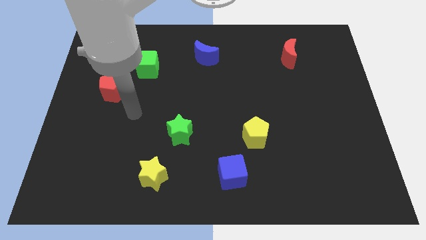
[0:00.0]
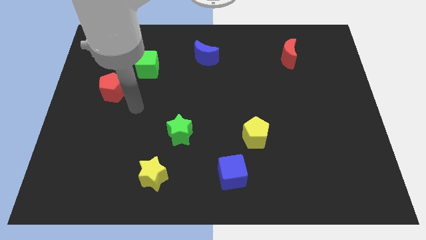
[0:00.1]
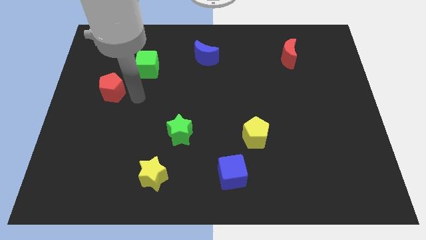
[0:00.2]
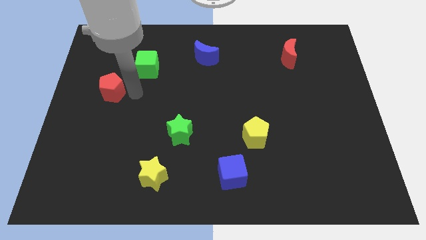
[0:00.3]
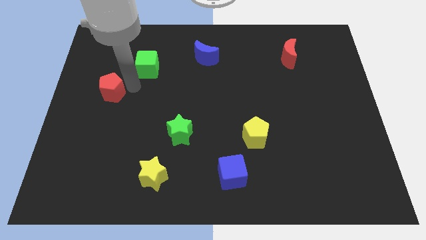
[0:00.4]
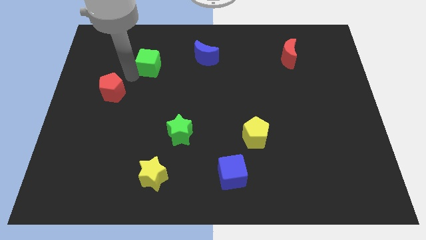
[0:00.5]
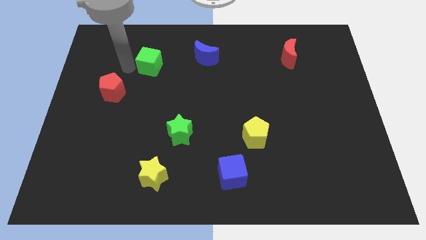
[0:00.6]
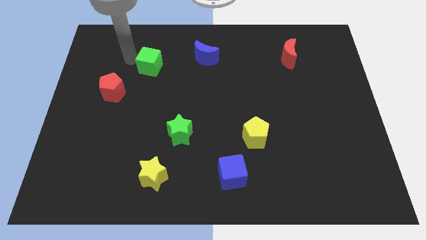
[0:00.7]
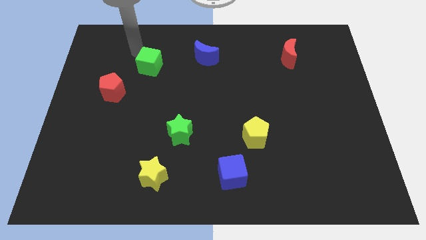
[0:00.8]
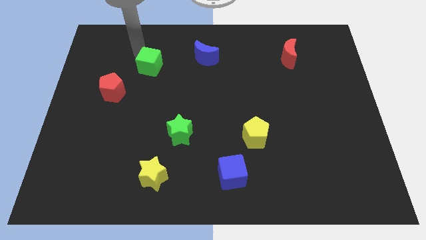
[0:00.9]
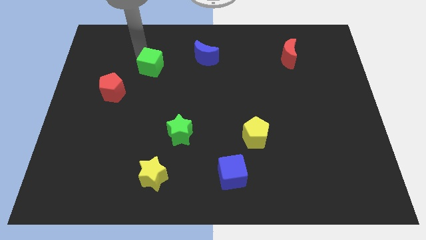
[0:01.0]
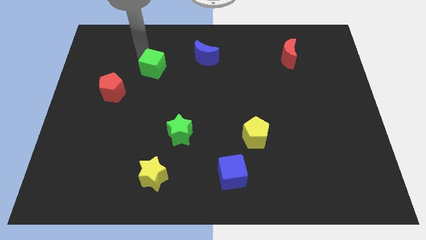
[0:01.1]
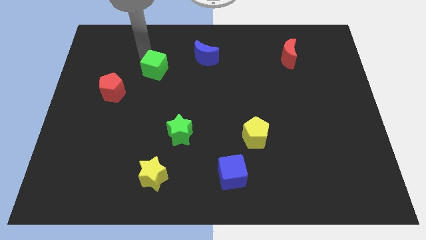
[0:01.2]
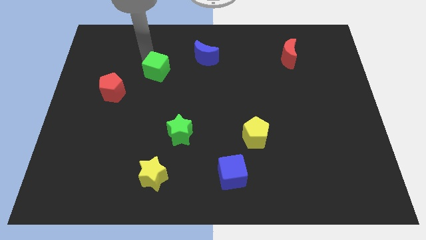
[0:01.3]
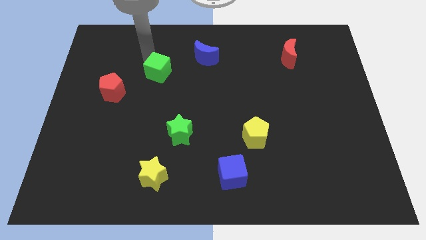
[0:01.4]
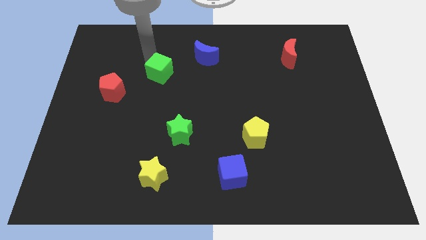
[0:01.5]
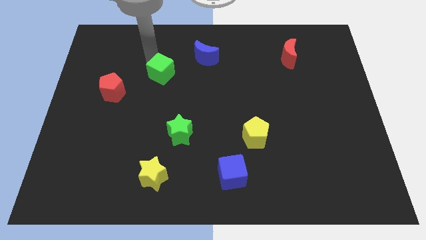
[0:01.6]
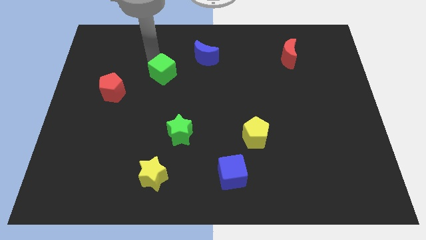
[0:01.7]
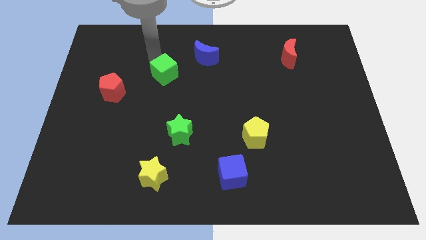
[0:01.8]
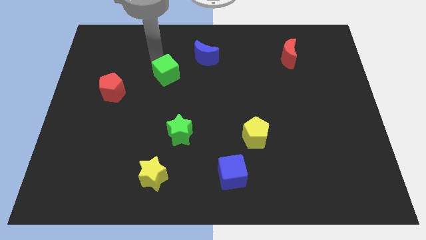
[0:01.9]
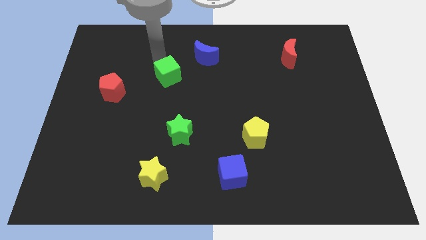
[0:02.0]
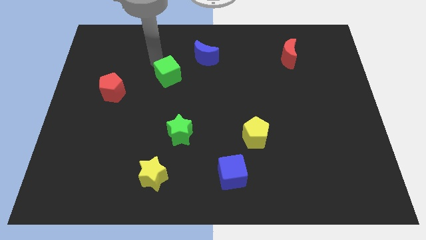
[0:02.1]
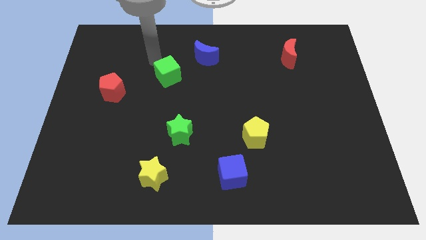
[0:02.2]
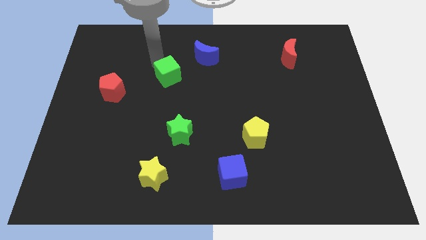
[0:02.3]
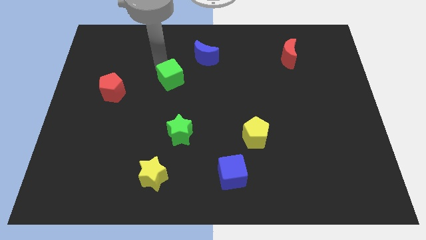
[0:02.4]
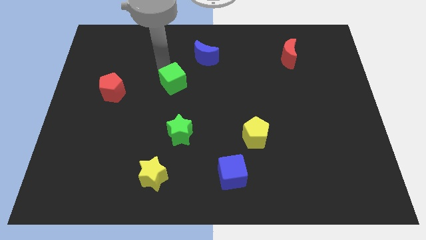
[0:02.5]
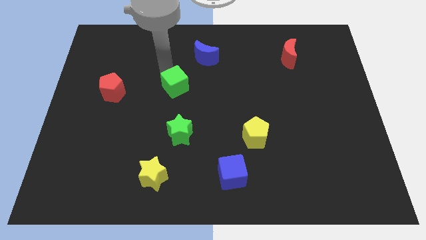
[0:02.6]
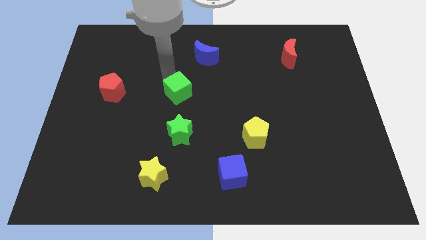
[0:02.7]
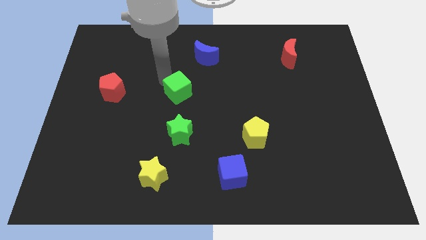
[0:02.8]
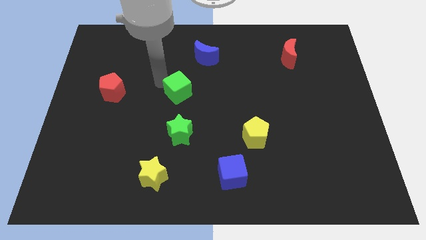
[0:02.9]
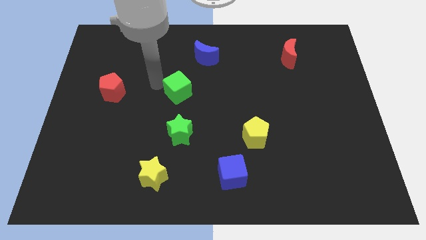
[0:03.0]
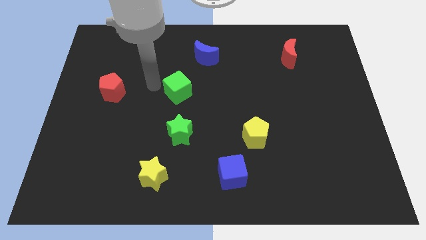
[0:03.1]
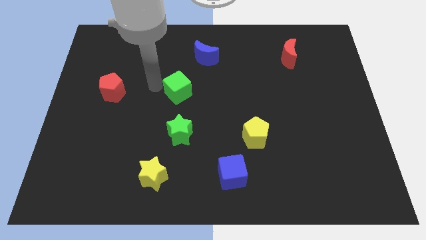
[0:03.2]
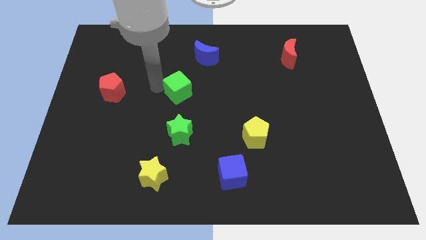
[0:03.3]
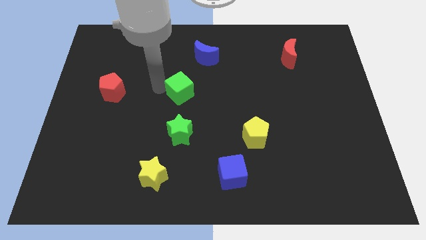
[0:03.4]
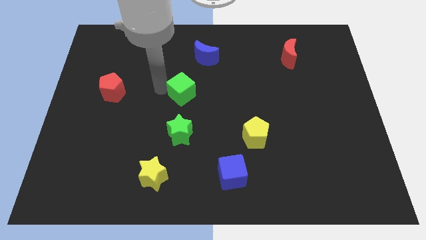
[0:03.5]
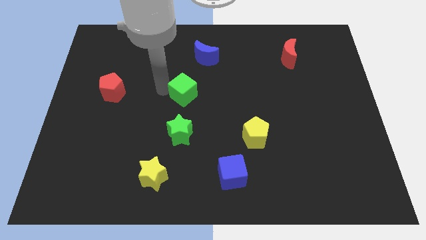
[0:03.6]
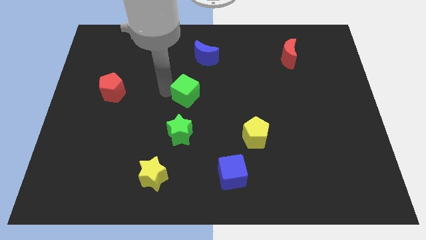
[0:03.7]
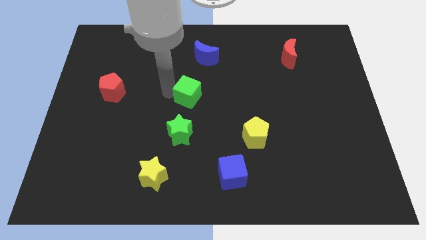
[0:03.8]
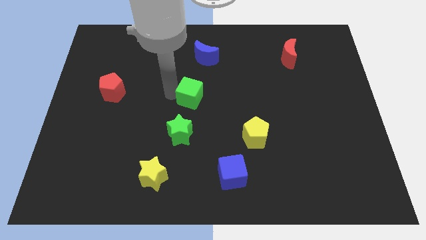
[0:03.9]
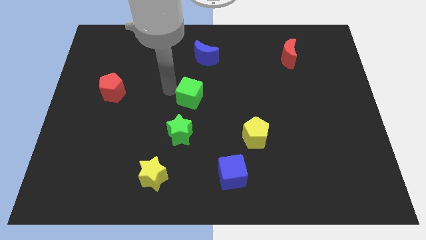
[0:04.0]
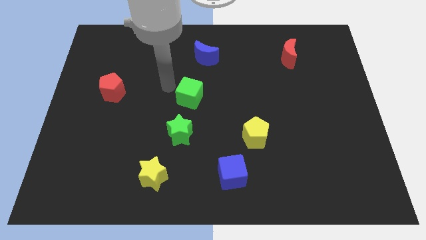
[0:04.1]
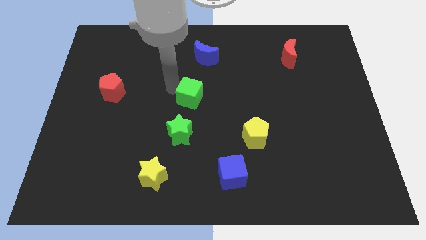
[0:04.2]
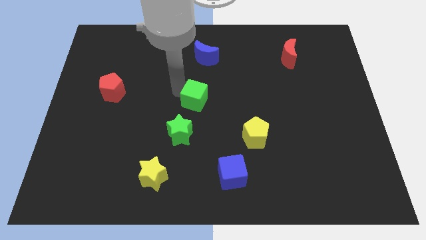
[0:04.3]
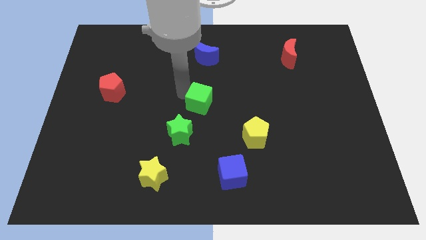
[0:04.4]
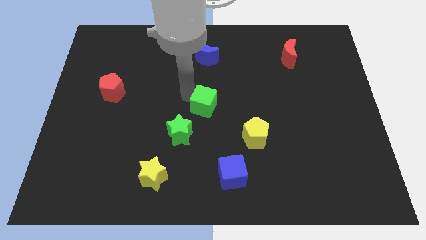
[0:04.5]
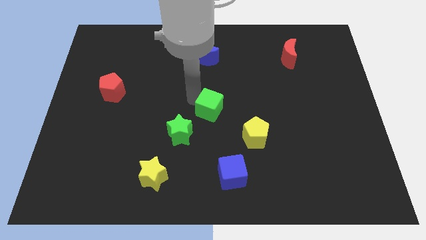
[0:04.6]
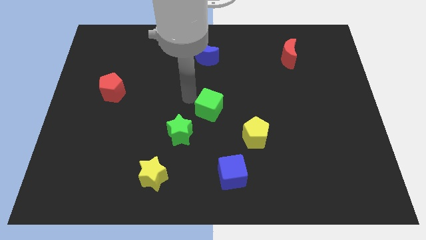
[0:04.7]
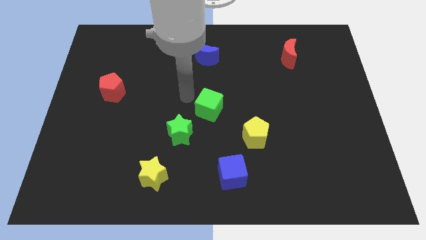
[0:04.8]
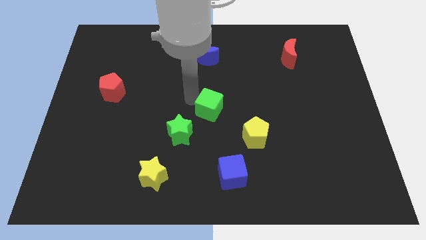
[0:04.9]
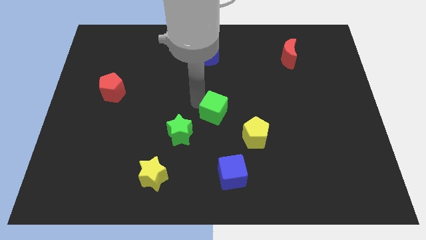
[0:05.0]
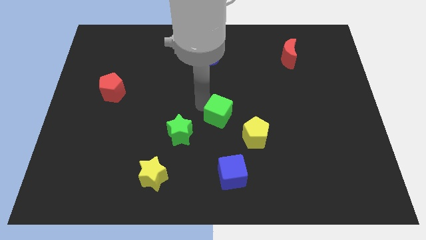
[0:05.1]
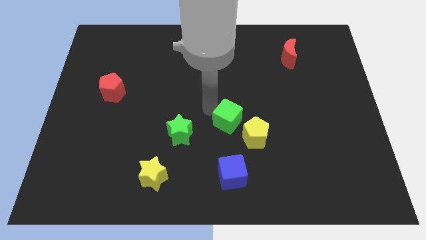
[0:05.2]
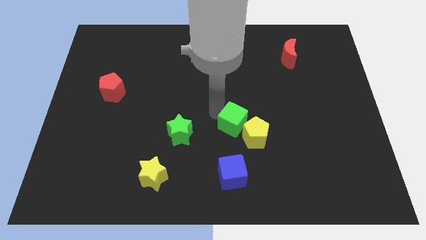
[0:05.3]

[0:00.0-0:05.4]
push the green cube towards the yellow pentagon

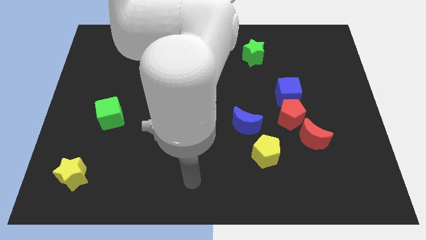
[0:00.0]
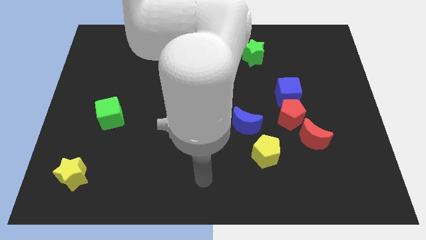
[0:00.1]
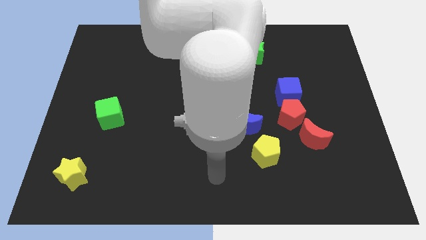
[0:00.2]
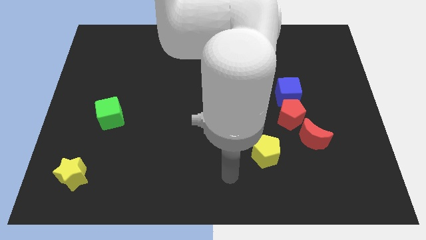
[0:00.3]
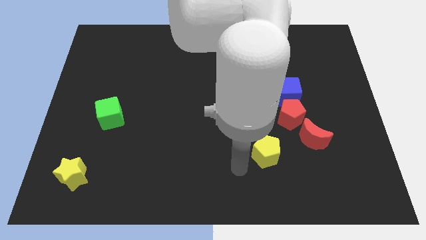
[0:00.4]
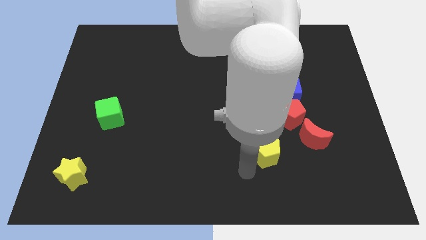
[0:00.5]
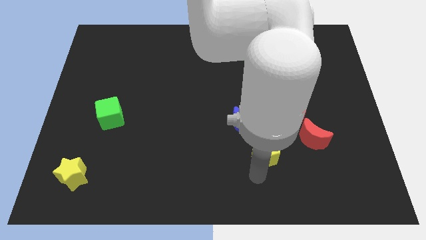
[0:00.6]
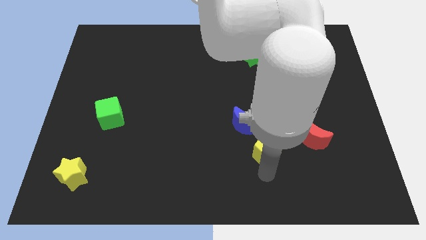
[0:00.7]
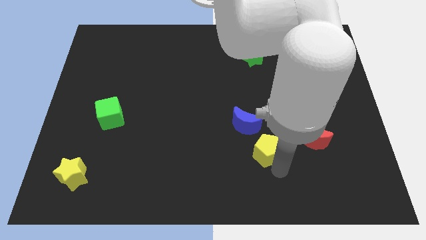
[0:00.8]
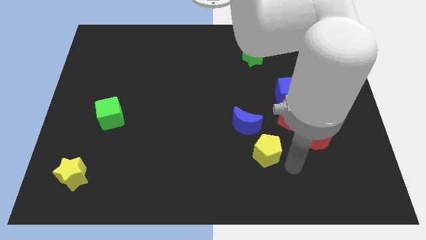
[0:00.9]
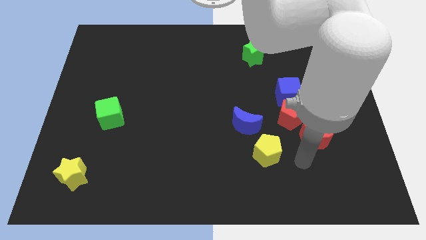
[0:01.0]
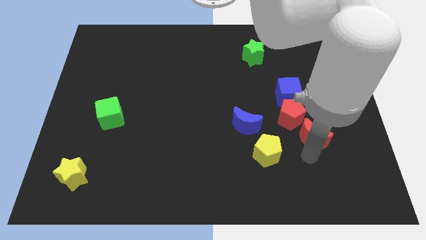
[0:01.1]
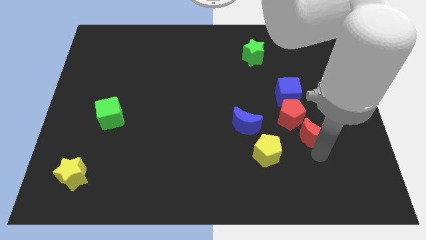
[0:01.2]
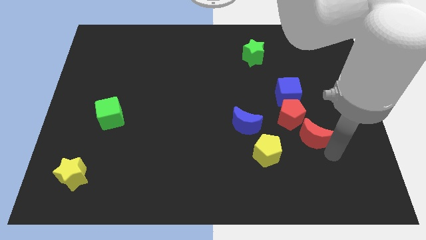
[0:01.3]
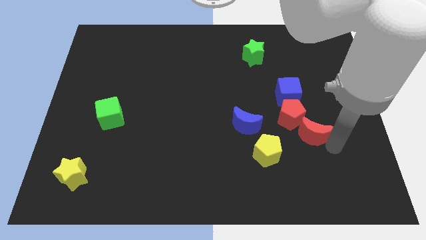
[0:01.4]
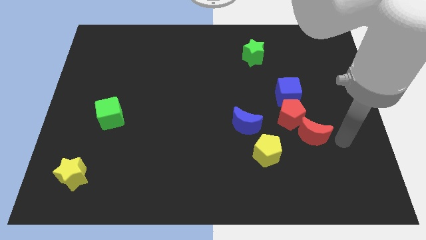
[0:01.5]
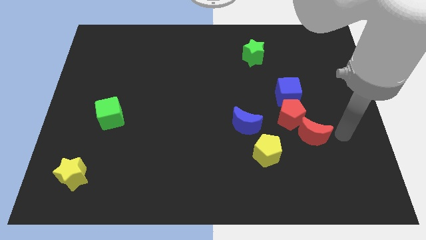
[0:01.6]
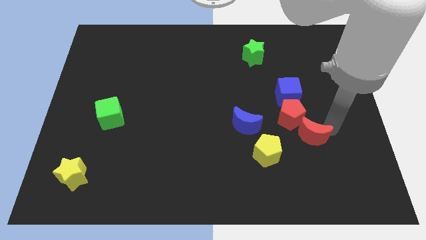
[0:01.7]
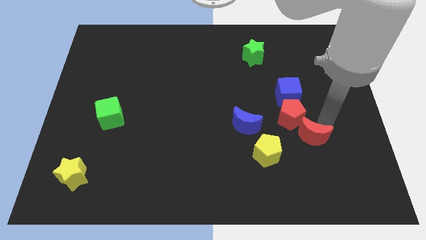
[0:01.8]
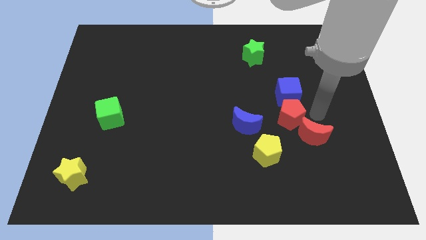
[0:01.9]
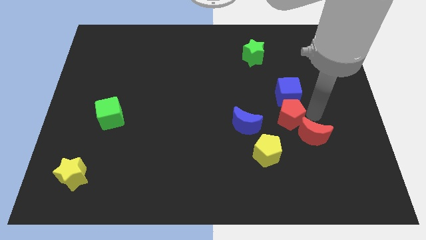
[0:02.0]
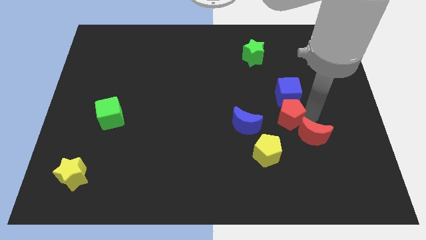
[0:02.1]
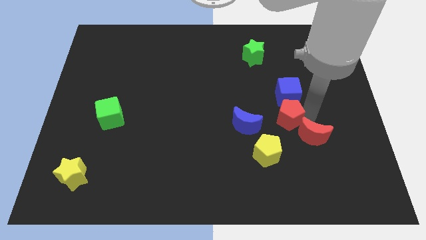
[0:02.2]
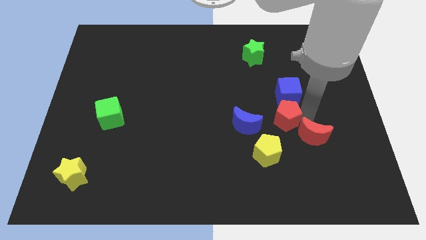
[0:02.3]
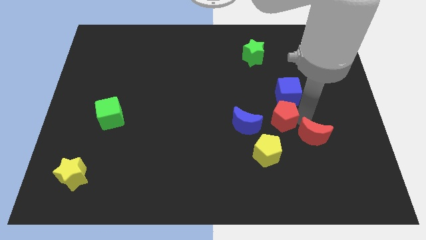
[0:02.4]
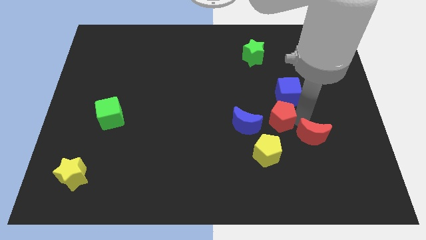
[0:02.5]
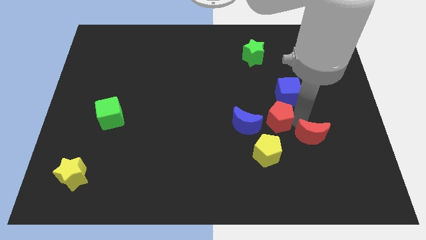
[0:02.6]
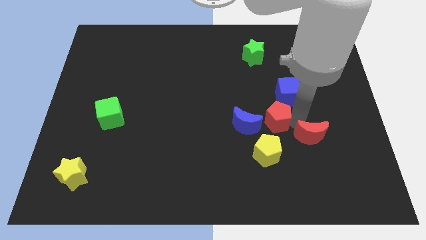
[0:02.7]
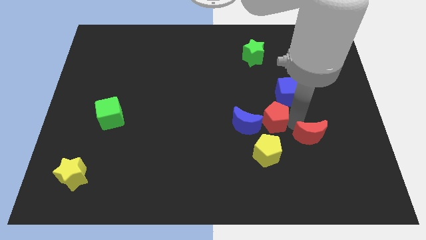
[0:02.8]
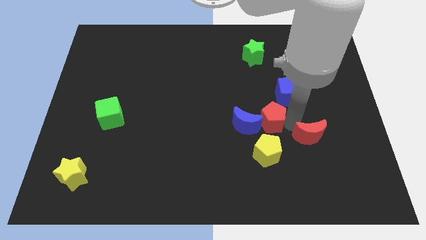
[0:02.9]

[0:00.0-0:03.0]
move the red pentagon to the blue moon
